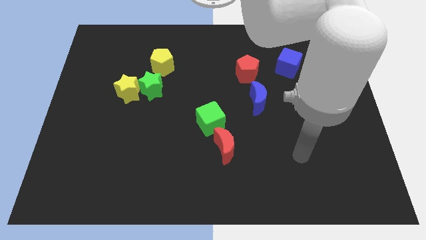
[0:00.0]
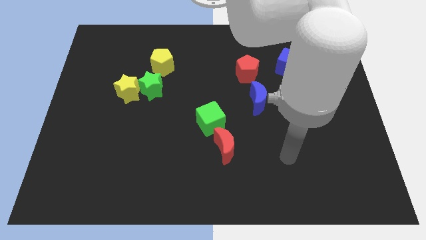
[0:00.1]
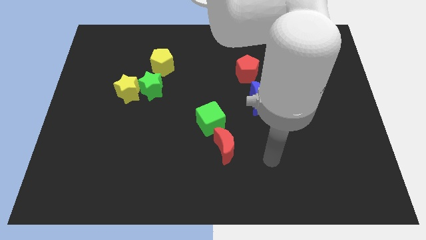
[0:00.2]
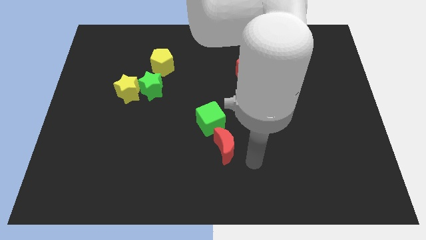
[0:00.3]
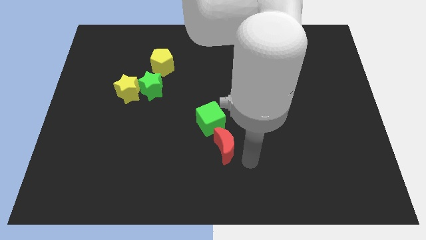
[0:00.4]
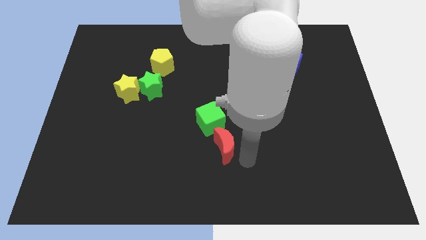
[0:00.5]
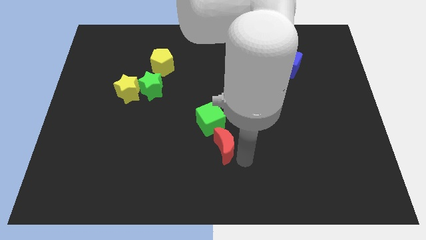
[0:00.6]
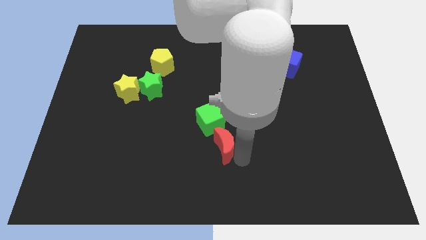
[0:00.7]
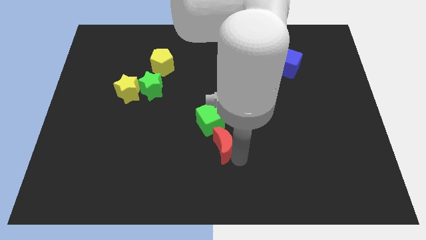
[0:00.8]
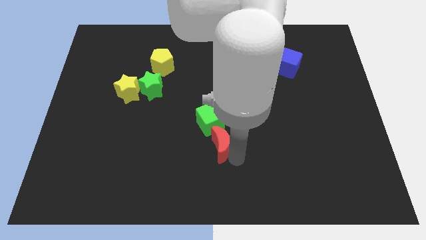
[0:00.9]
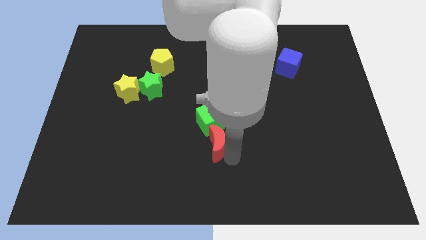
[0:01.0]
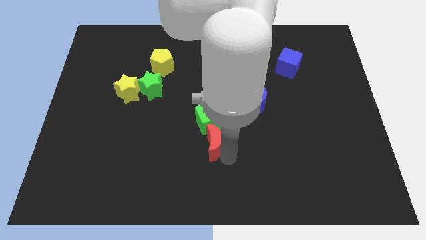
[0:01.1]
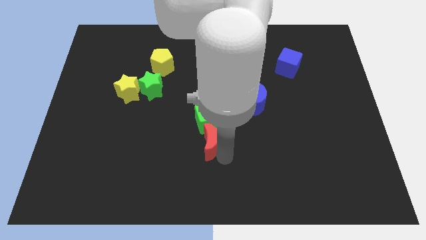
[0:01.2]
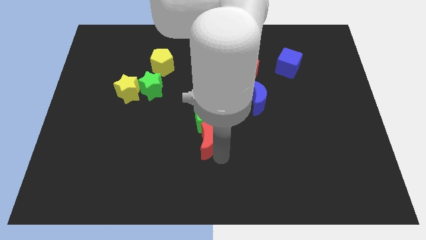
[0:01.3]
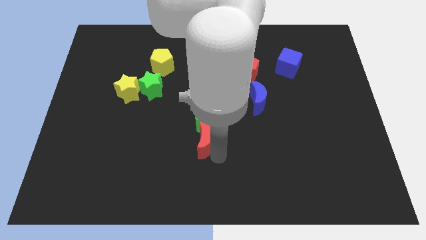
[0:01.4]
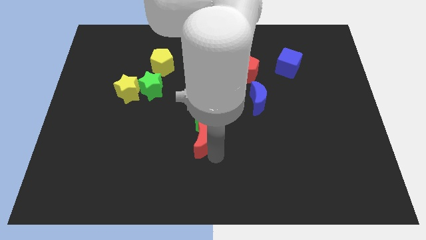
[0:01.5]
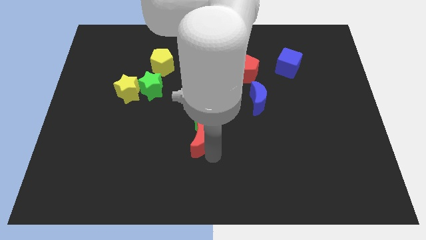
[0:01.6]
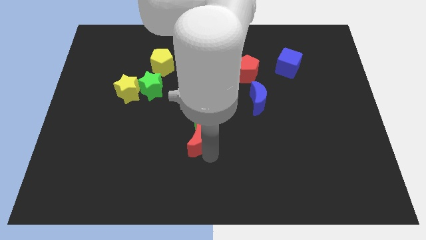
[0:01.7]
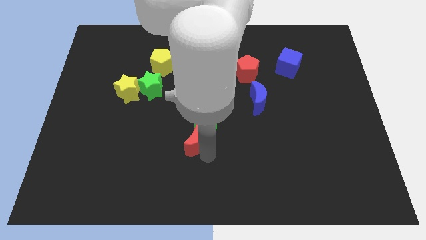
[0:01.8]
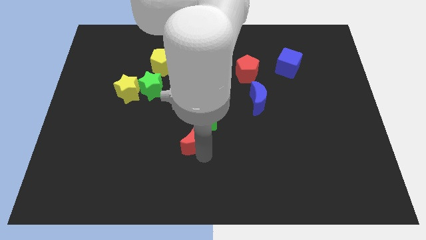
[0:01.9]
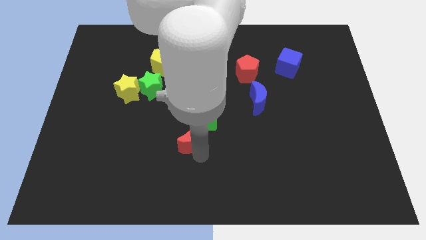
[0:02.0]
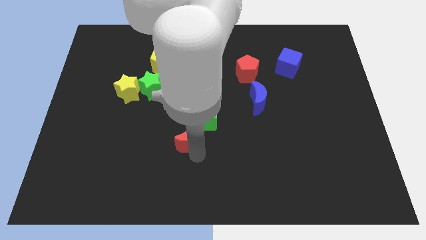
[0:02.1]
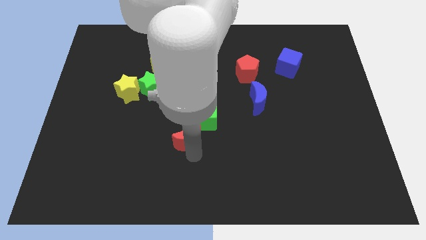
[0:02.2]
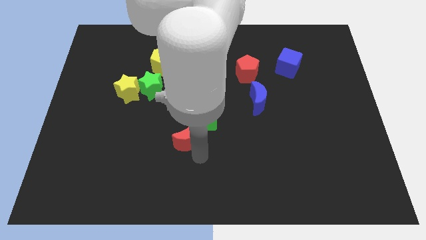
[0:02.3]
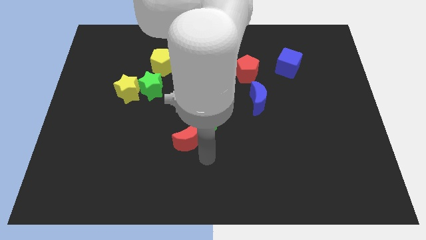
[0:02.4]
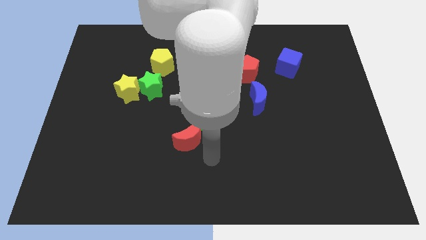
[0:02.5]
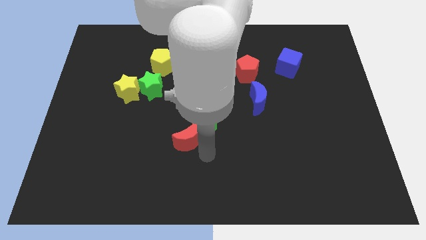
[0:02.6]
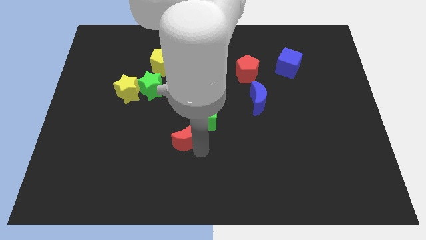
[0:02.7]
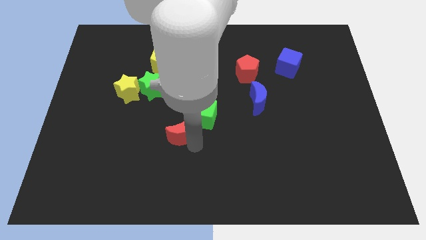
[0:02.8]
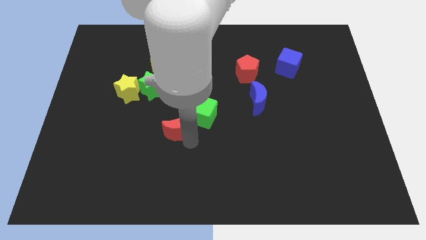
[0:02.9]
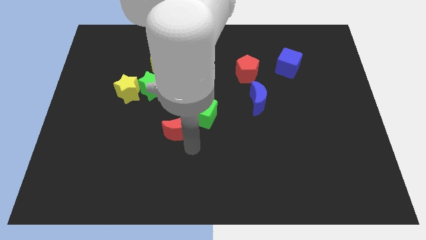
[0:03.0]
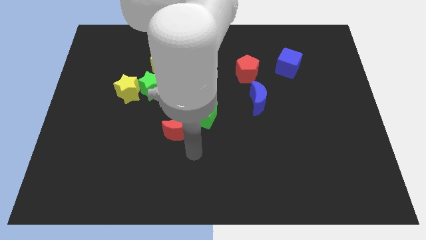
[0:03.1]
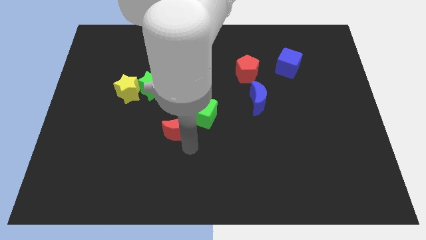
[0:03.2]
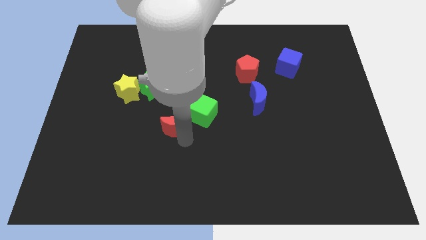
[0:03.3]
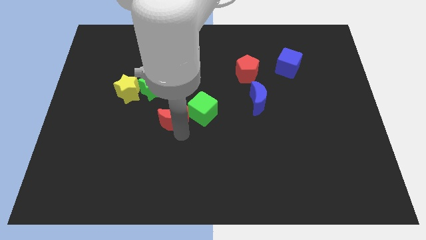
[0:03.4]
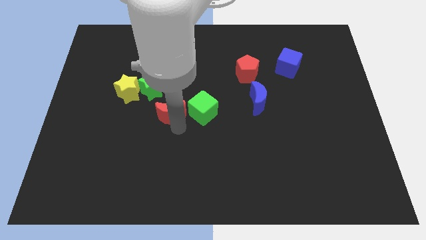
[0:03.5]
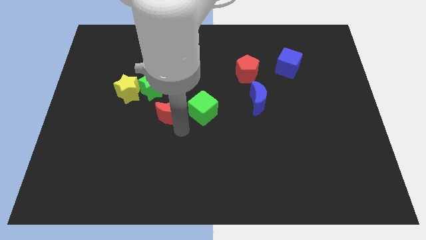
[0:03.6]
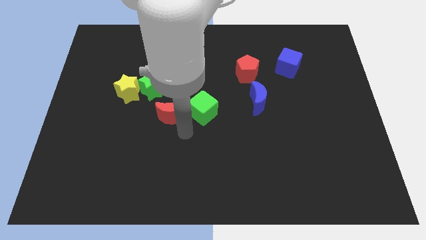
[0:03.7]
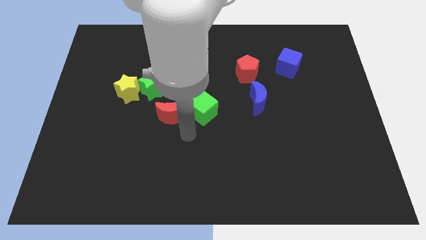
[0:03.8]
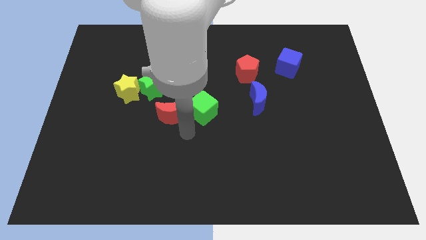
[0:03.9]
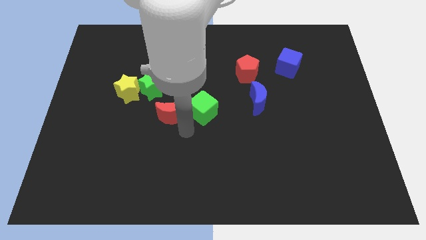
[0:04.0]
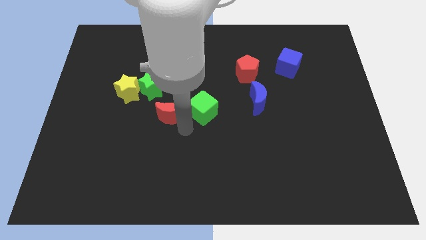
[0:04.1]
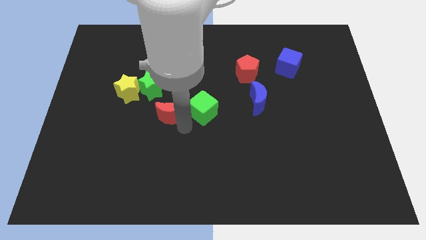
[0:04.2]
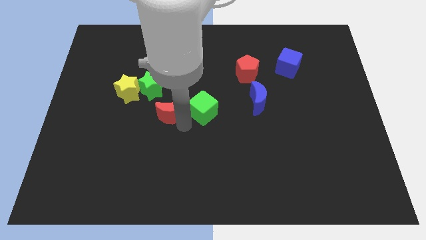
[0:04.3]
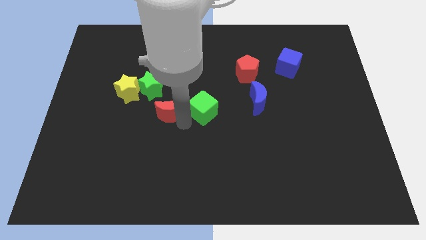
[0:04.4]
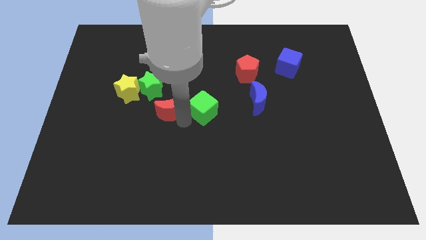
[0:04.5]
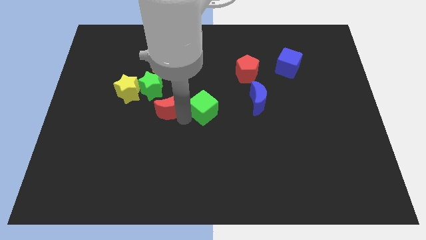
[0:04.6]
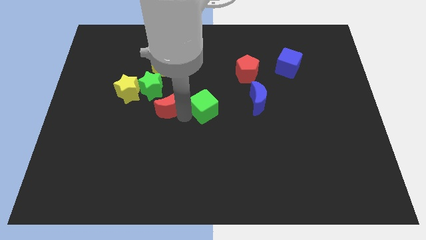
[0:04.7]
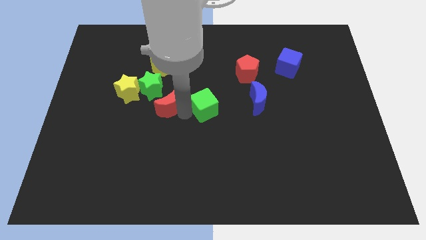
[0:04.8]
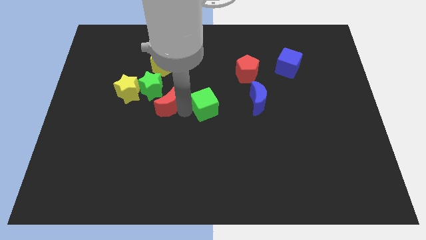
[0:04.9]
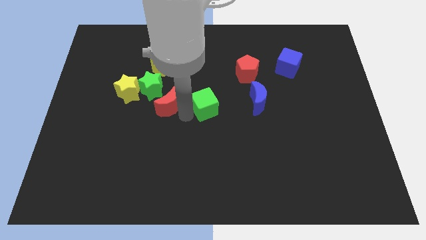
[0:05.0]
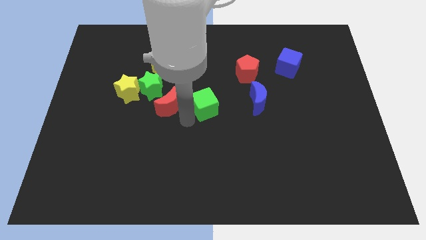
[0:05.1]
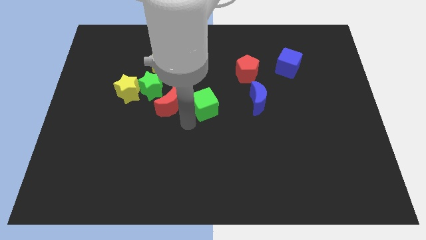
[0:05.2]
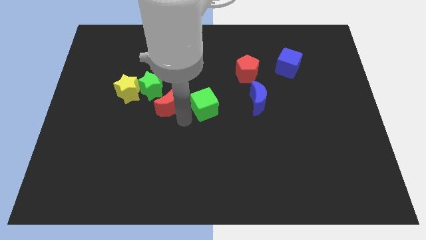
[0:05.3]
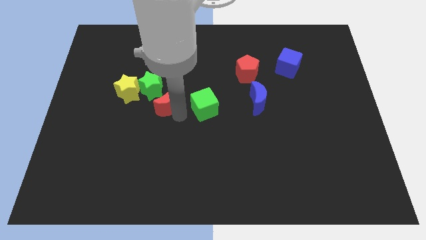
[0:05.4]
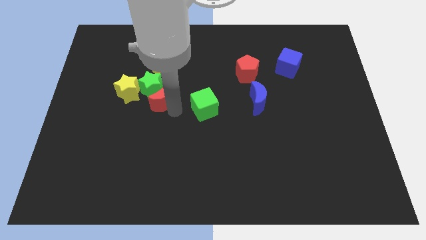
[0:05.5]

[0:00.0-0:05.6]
put the red moon next to the green star

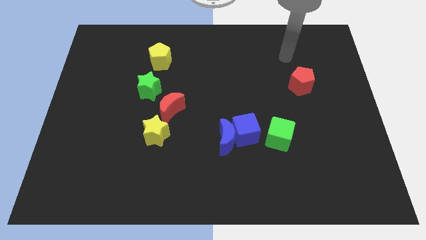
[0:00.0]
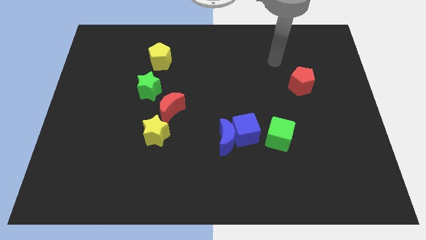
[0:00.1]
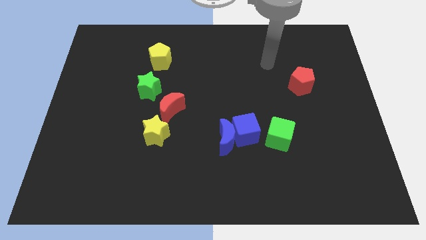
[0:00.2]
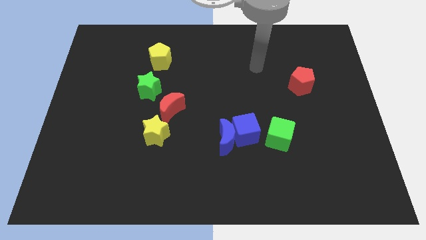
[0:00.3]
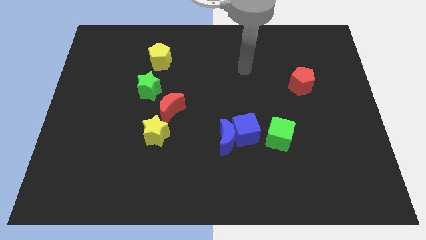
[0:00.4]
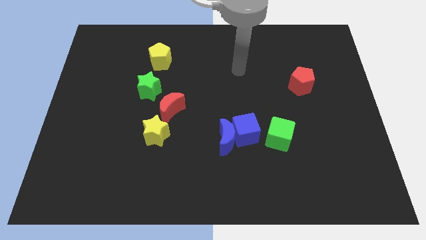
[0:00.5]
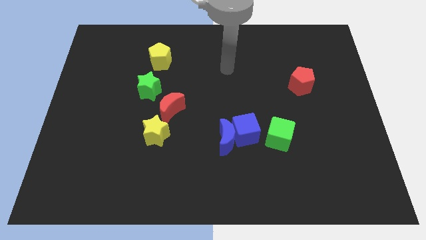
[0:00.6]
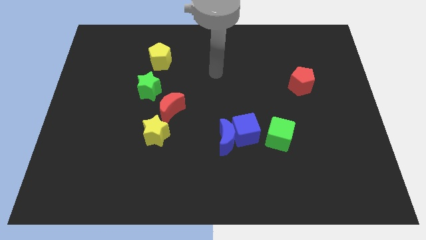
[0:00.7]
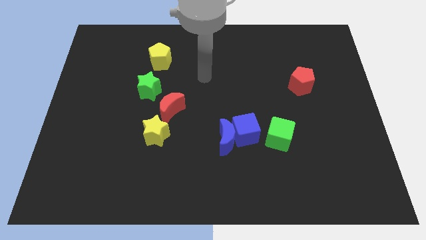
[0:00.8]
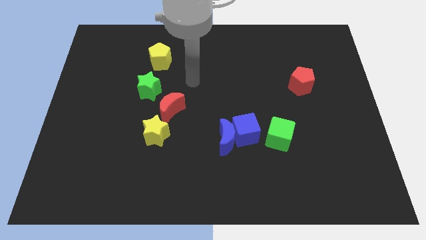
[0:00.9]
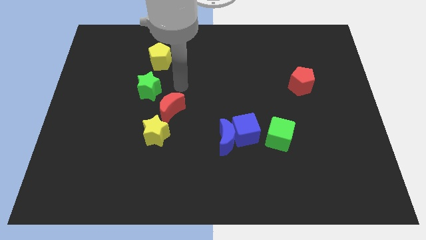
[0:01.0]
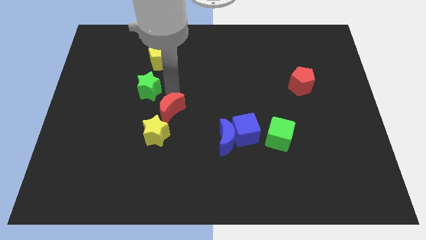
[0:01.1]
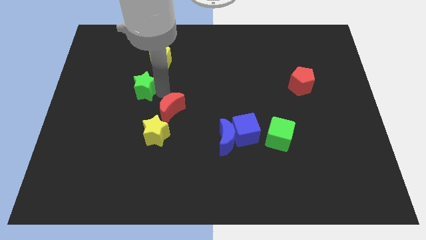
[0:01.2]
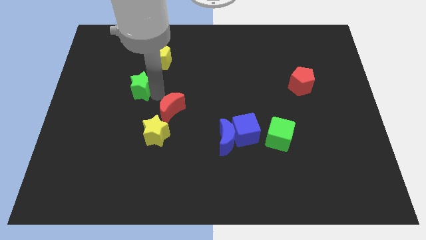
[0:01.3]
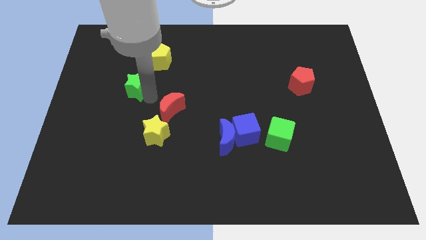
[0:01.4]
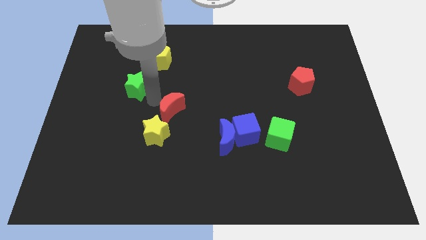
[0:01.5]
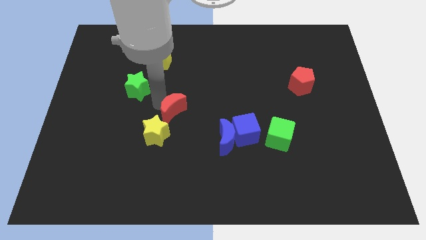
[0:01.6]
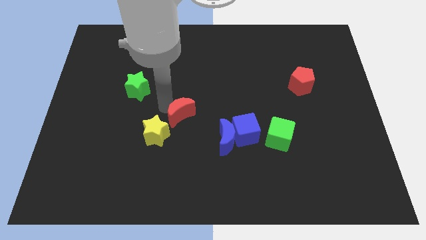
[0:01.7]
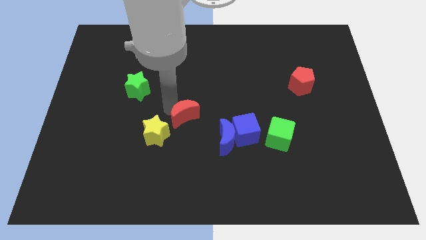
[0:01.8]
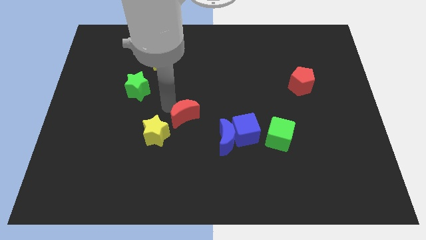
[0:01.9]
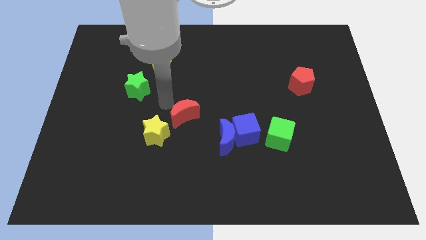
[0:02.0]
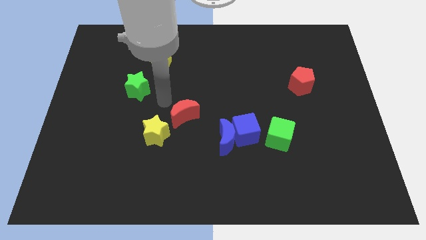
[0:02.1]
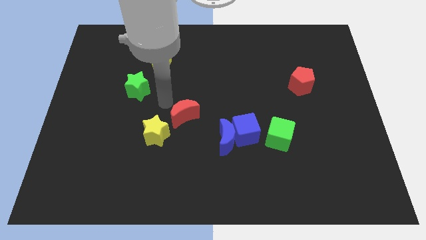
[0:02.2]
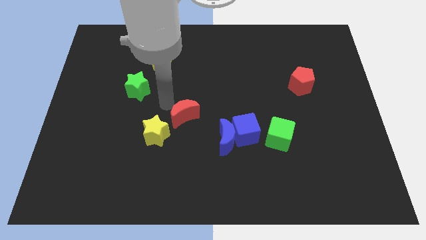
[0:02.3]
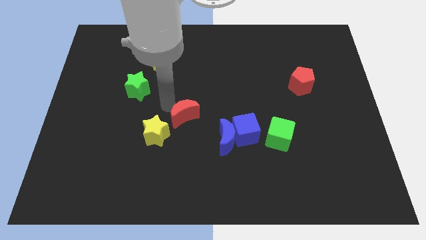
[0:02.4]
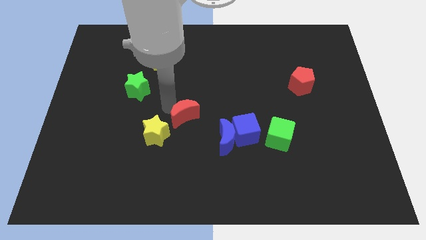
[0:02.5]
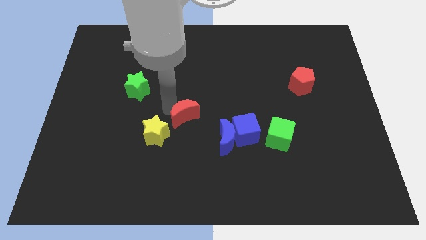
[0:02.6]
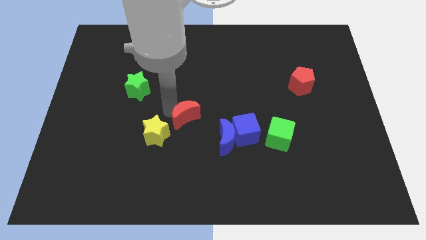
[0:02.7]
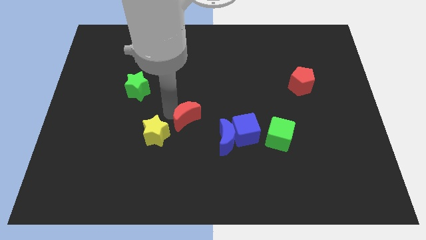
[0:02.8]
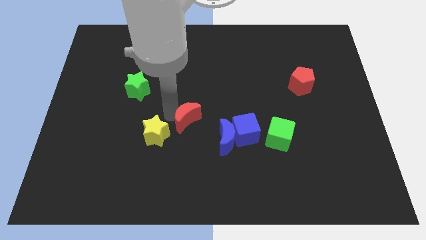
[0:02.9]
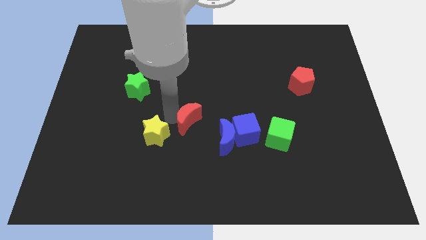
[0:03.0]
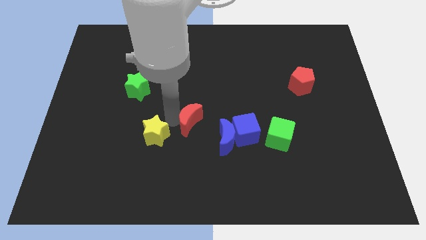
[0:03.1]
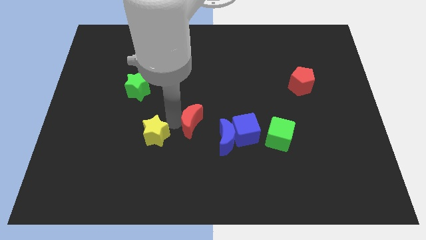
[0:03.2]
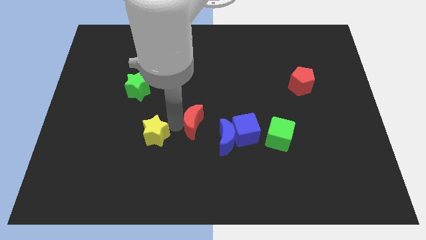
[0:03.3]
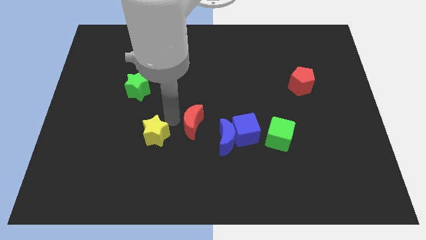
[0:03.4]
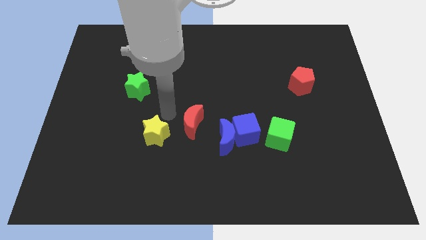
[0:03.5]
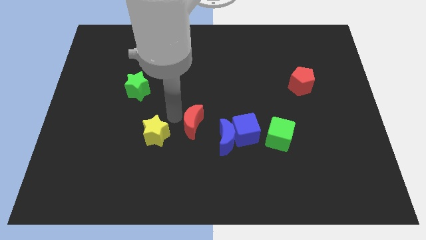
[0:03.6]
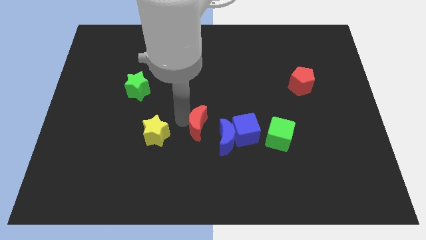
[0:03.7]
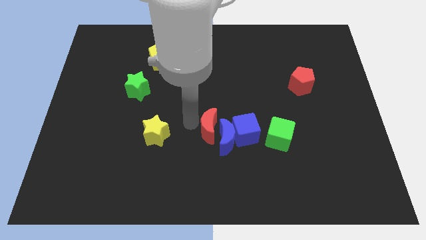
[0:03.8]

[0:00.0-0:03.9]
put the red moon next to the blue moon
